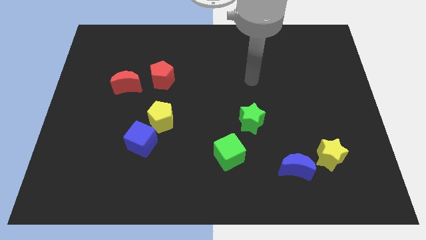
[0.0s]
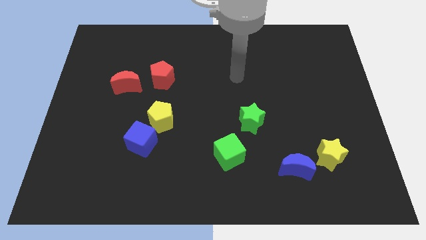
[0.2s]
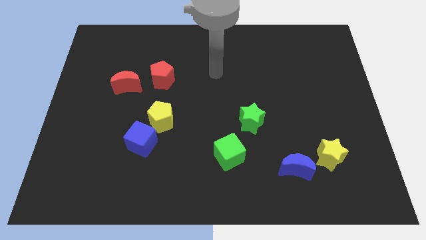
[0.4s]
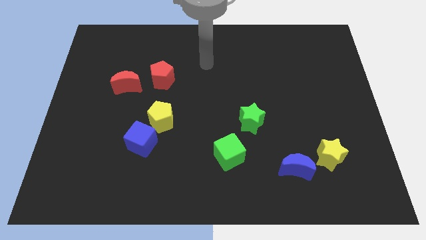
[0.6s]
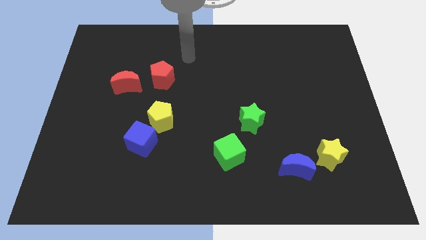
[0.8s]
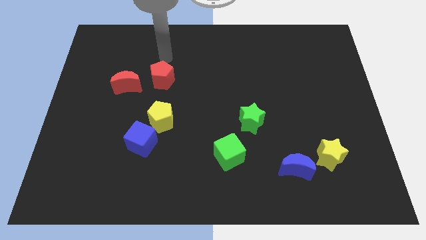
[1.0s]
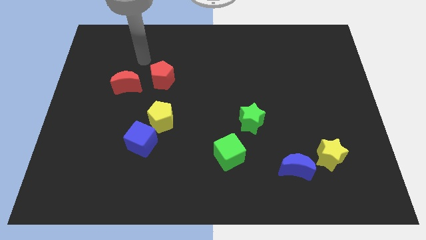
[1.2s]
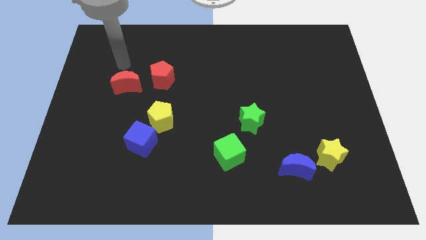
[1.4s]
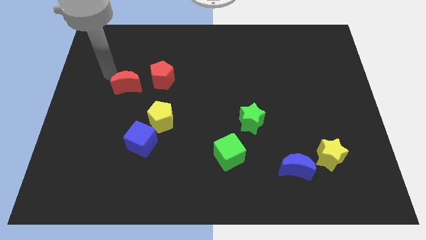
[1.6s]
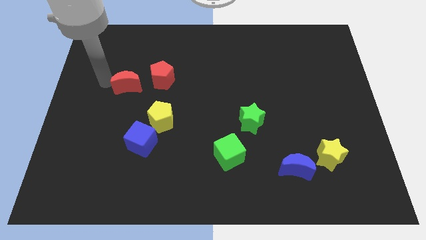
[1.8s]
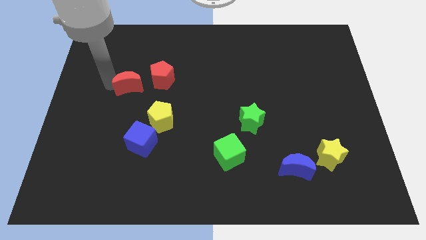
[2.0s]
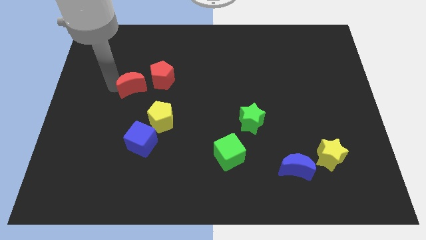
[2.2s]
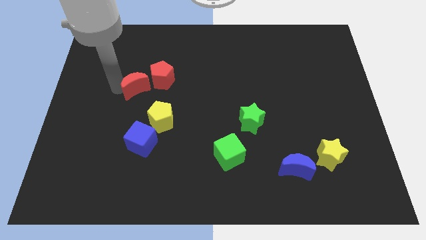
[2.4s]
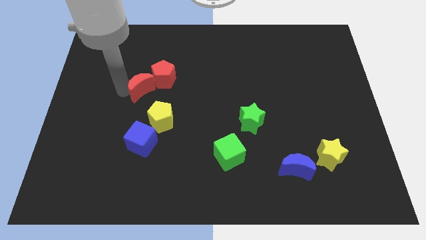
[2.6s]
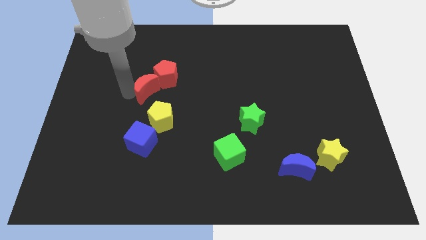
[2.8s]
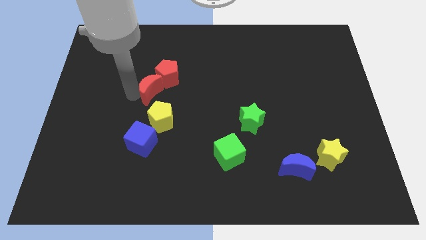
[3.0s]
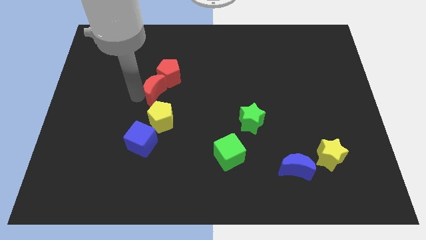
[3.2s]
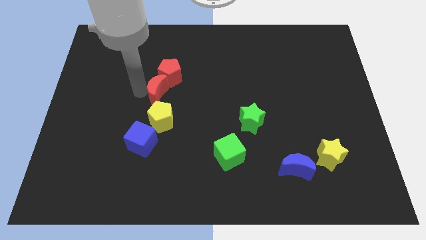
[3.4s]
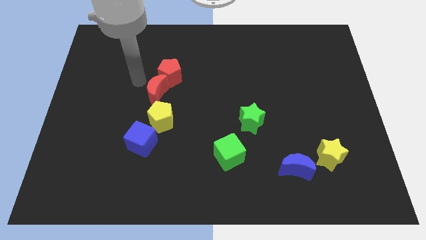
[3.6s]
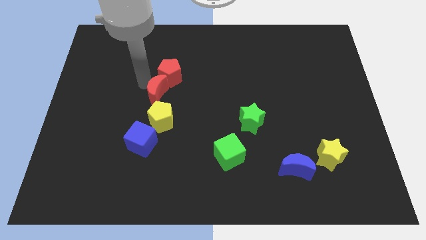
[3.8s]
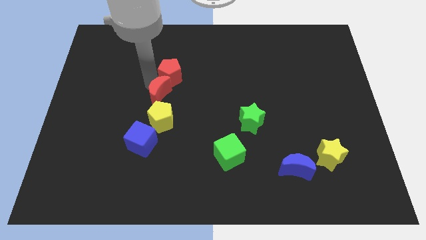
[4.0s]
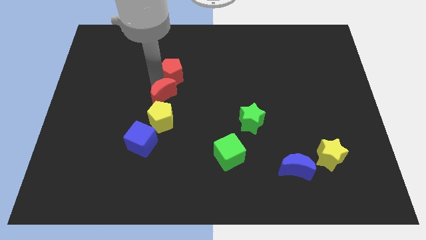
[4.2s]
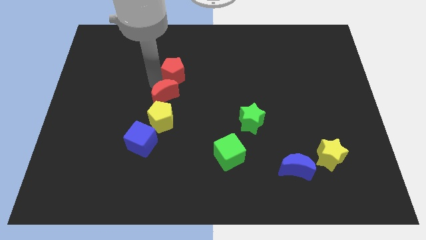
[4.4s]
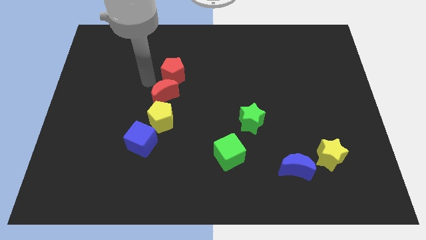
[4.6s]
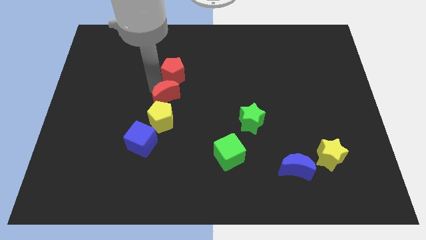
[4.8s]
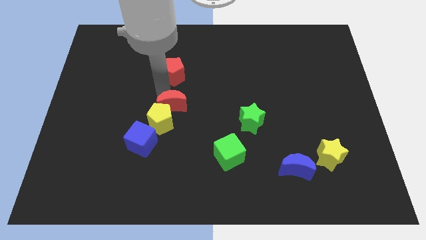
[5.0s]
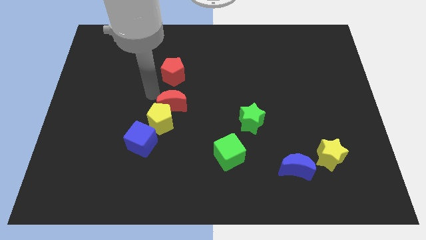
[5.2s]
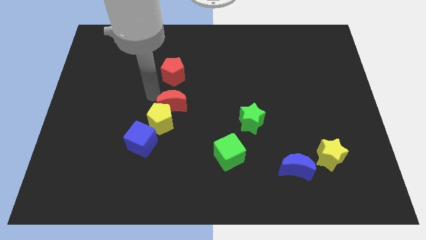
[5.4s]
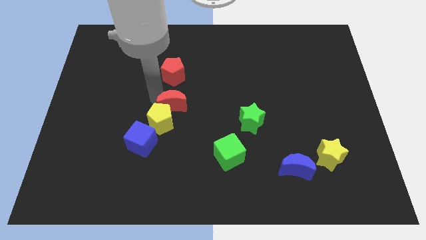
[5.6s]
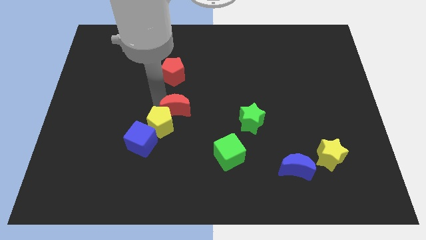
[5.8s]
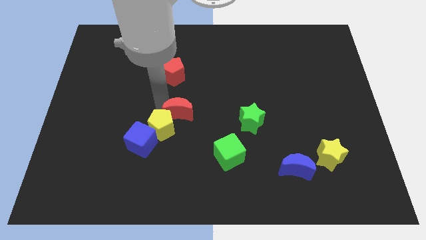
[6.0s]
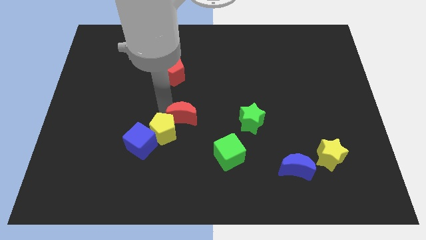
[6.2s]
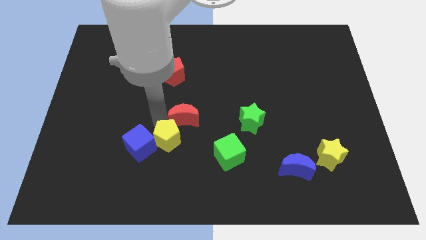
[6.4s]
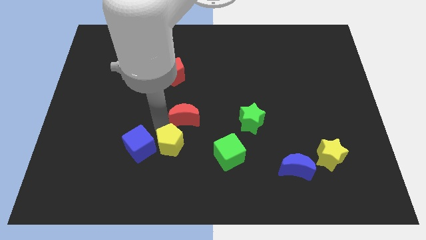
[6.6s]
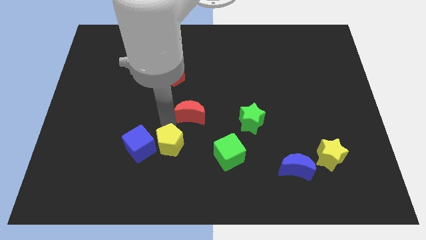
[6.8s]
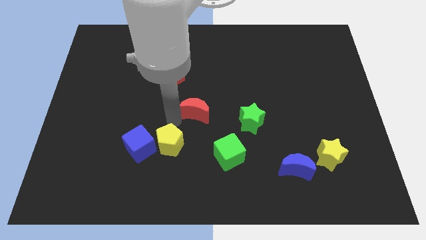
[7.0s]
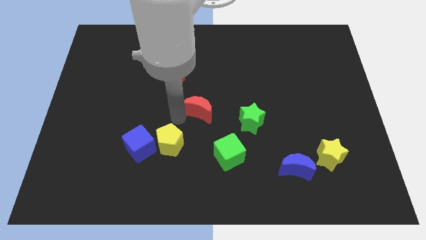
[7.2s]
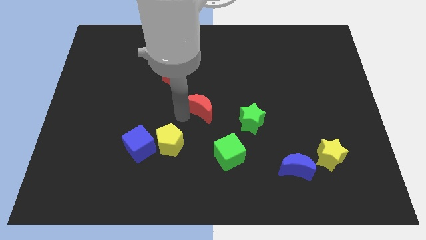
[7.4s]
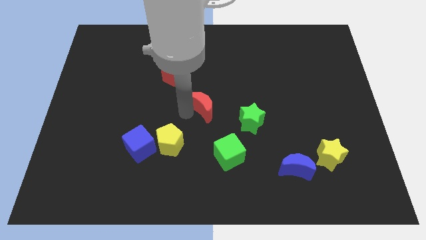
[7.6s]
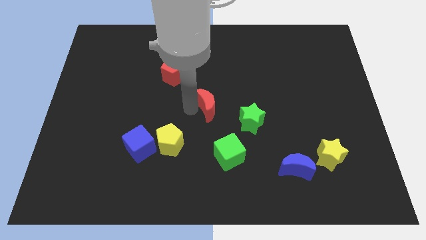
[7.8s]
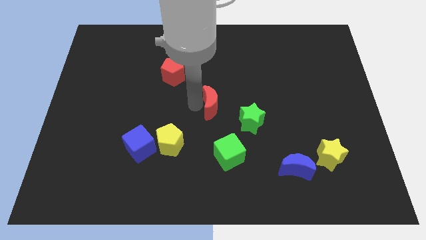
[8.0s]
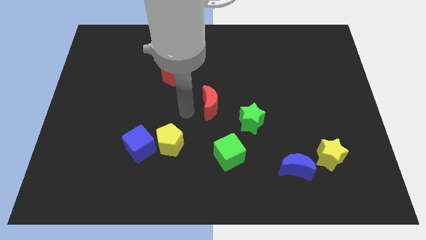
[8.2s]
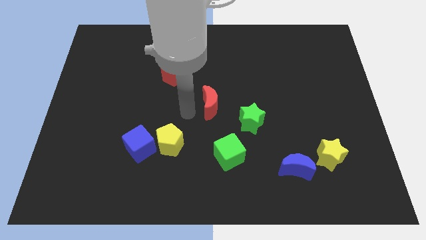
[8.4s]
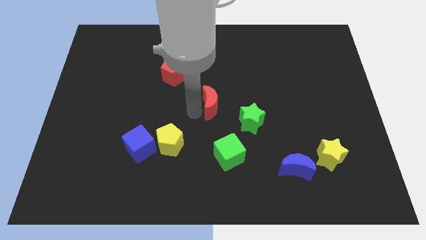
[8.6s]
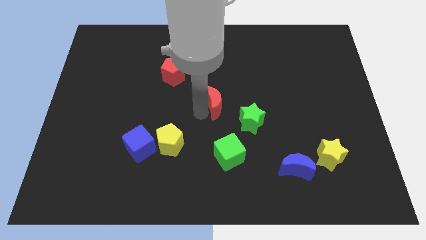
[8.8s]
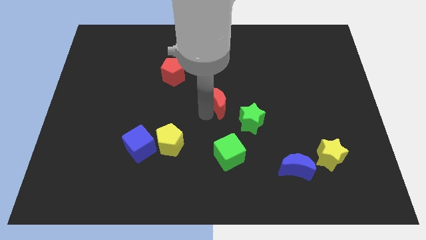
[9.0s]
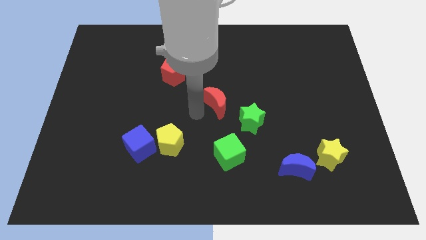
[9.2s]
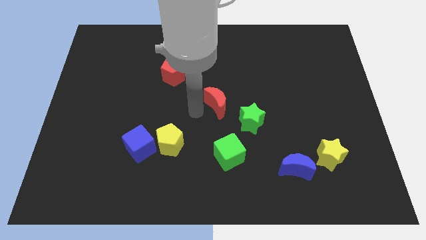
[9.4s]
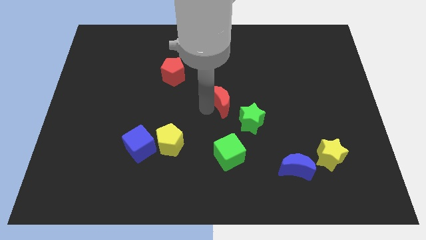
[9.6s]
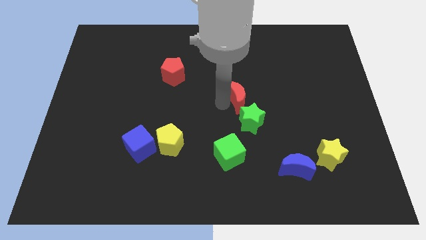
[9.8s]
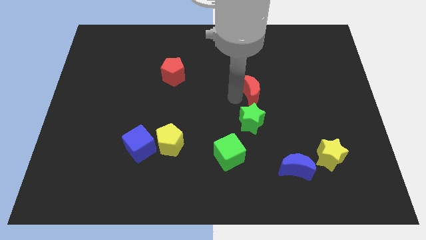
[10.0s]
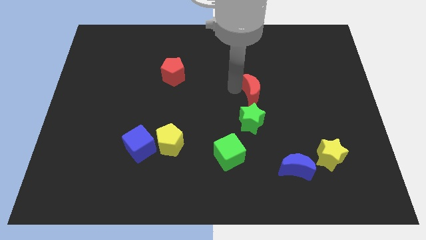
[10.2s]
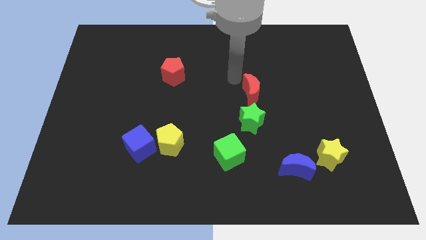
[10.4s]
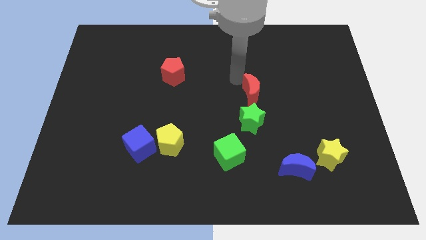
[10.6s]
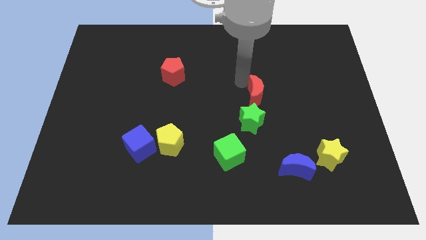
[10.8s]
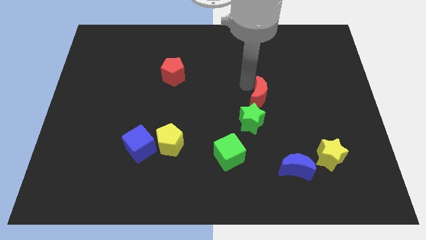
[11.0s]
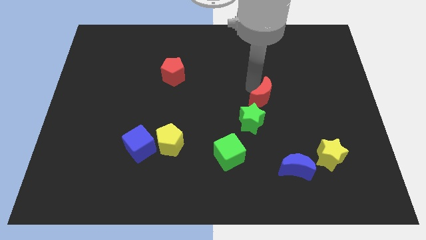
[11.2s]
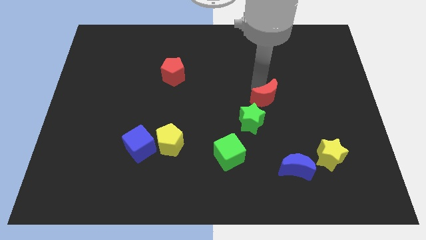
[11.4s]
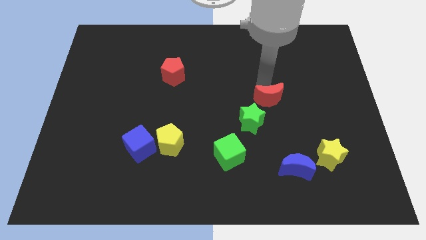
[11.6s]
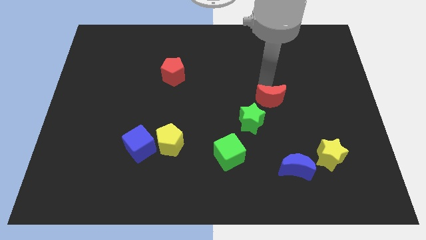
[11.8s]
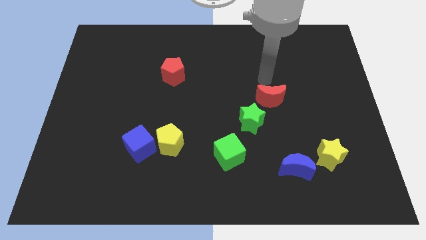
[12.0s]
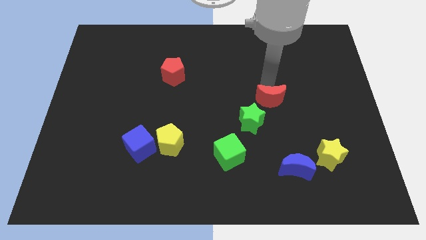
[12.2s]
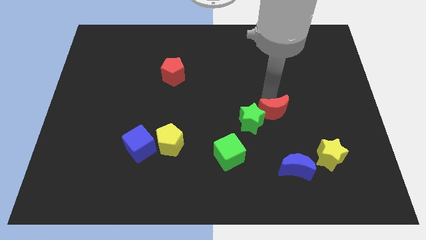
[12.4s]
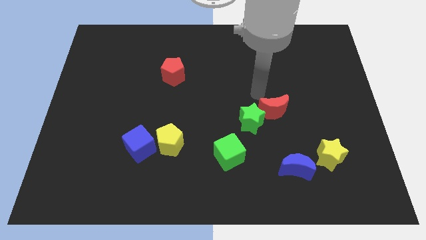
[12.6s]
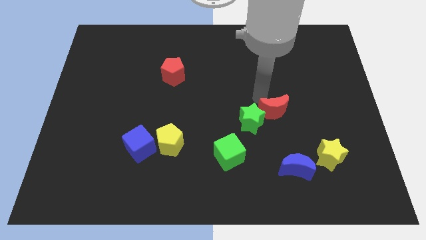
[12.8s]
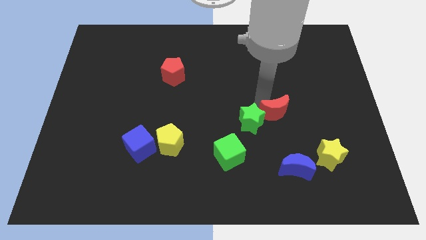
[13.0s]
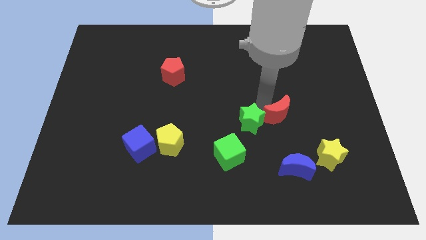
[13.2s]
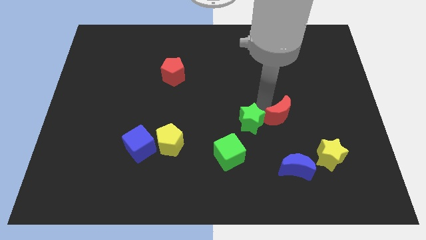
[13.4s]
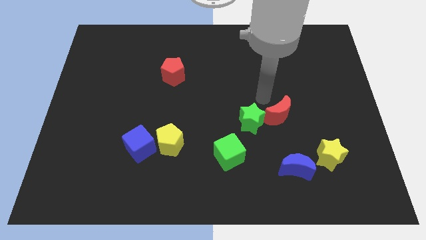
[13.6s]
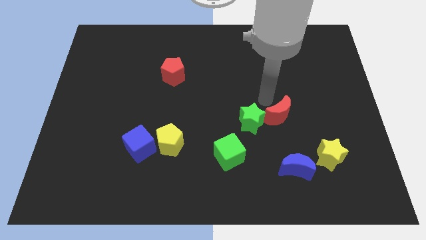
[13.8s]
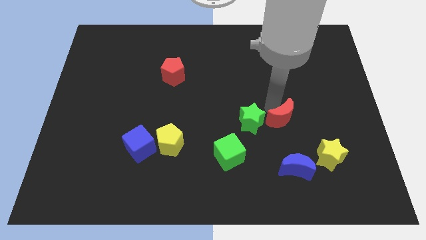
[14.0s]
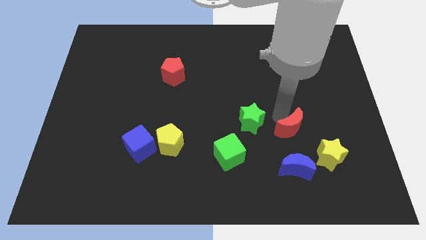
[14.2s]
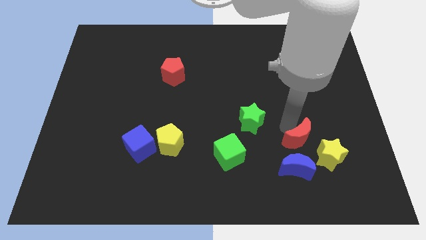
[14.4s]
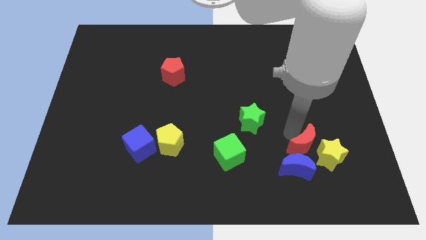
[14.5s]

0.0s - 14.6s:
put the red moon to the yellow star
